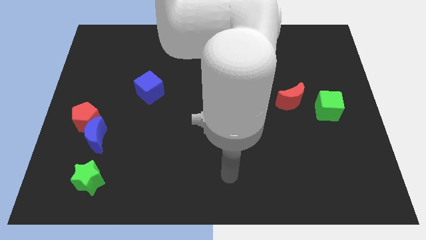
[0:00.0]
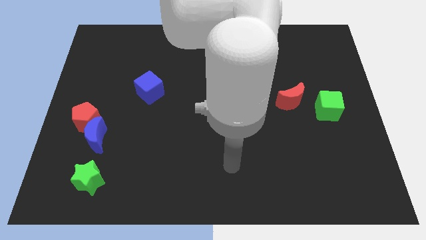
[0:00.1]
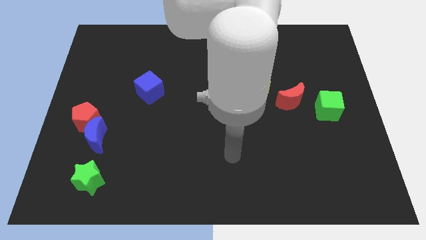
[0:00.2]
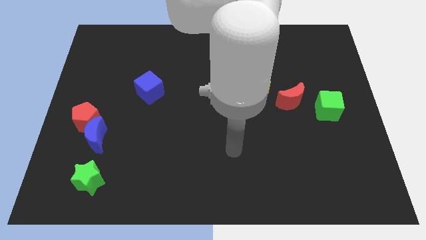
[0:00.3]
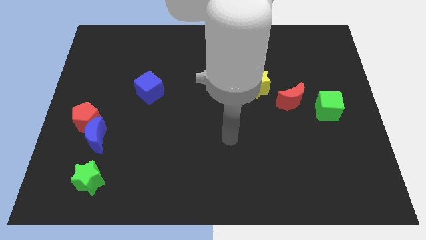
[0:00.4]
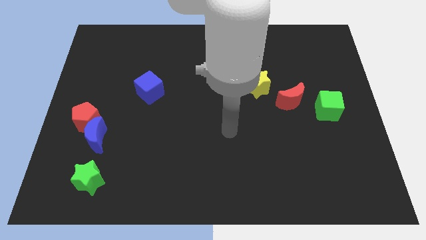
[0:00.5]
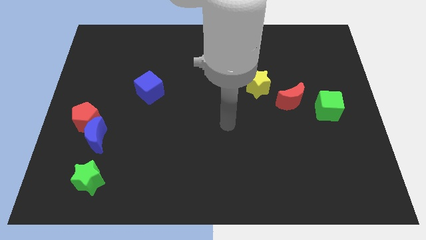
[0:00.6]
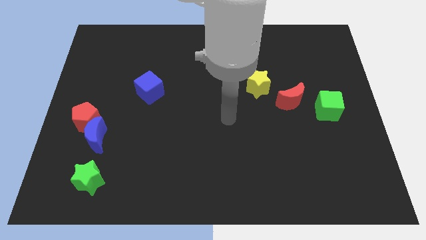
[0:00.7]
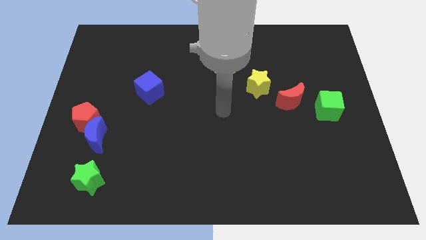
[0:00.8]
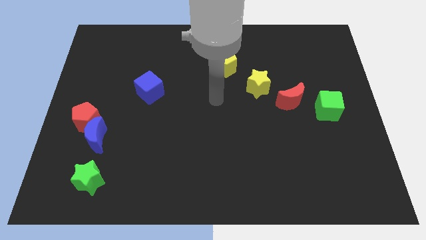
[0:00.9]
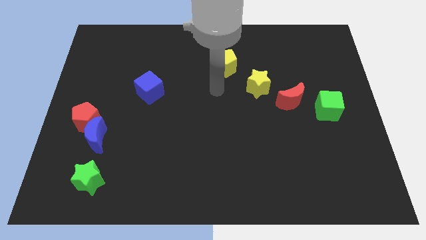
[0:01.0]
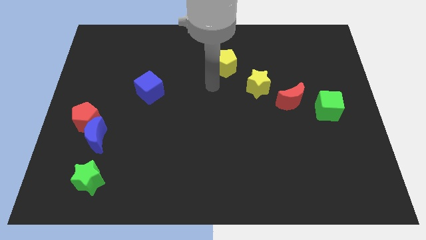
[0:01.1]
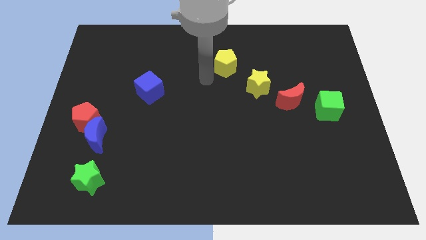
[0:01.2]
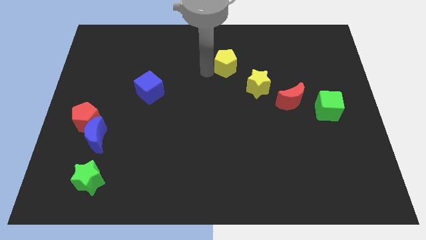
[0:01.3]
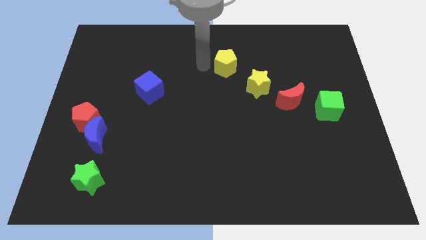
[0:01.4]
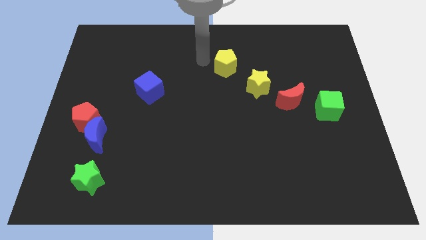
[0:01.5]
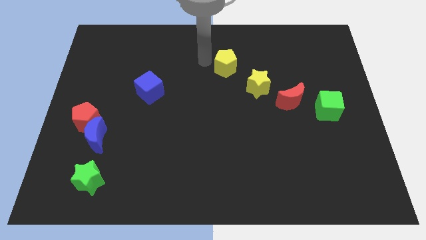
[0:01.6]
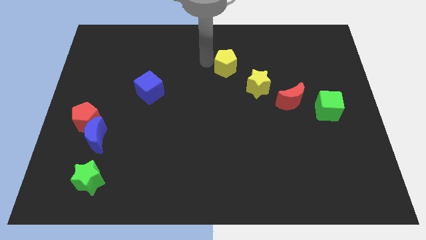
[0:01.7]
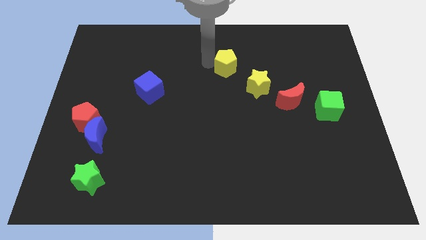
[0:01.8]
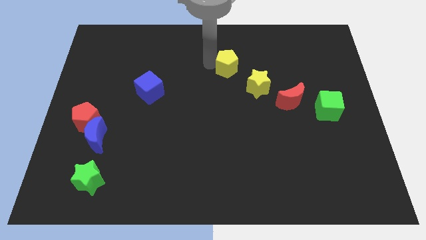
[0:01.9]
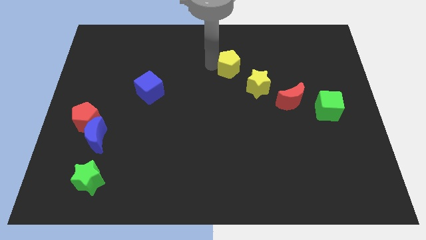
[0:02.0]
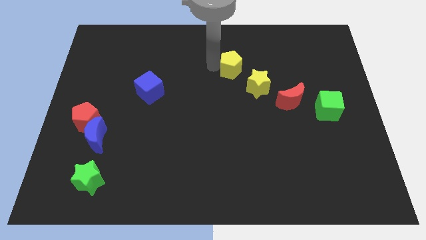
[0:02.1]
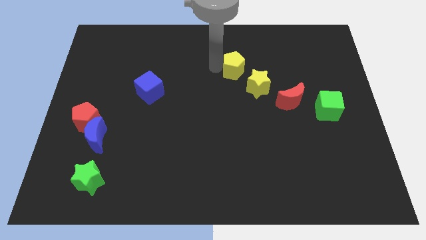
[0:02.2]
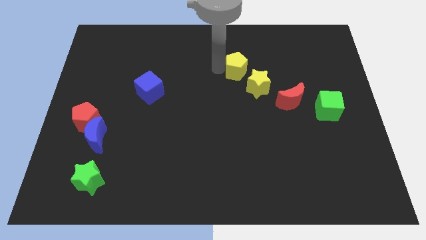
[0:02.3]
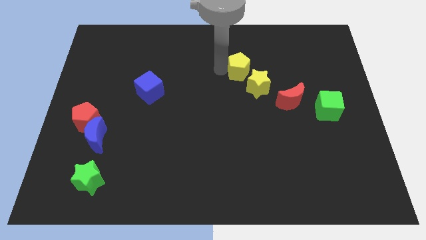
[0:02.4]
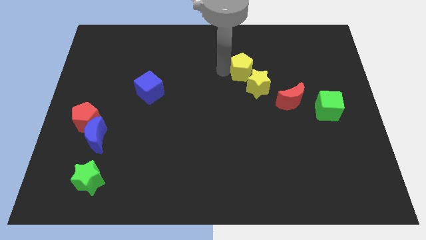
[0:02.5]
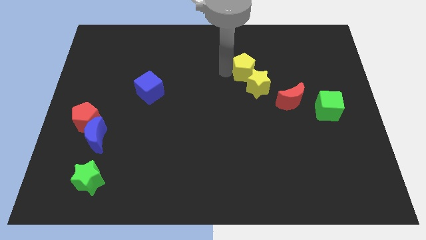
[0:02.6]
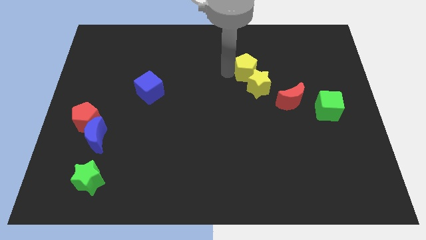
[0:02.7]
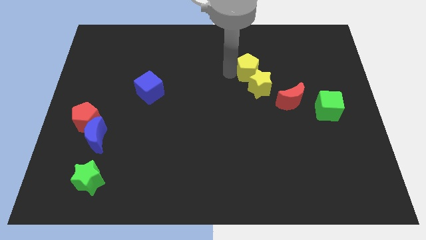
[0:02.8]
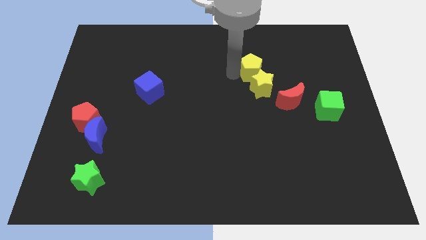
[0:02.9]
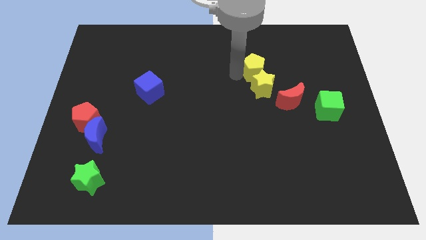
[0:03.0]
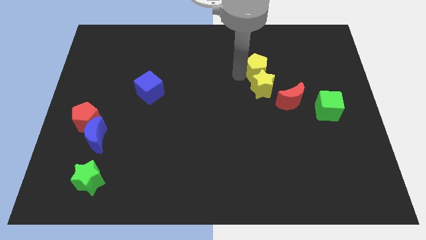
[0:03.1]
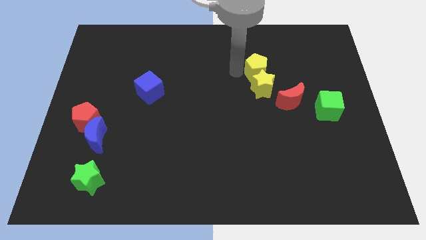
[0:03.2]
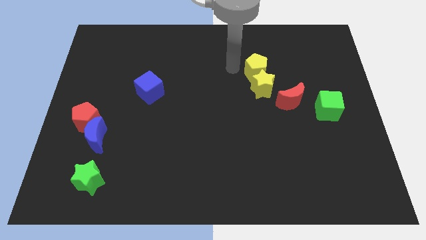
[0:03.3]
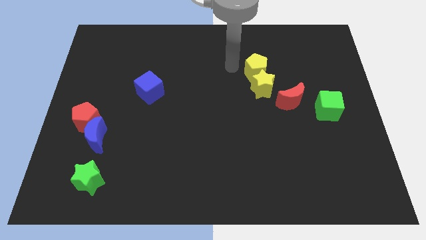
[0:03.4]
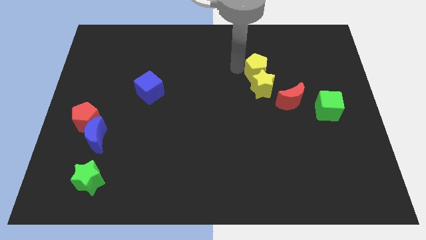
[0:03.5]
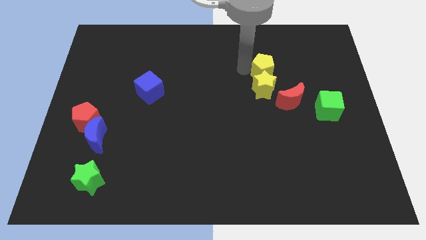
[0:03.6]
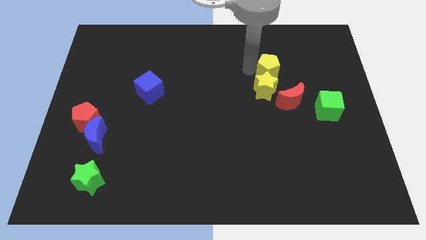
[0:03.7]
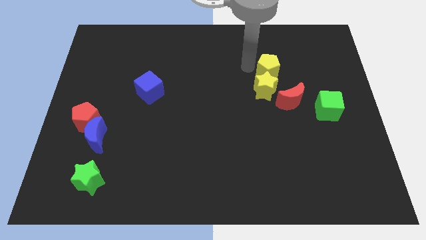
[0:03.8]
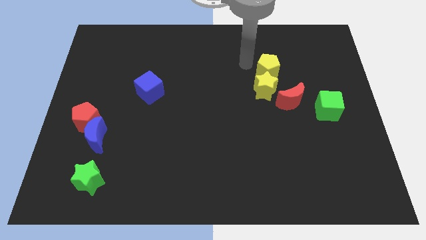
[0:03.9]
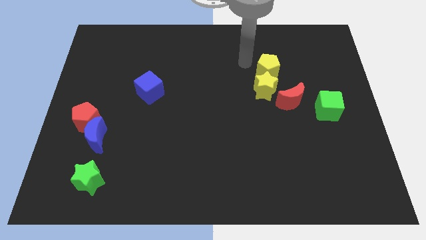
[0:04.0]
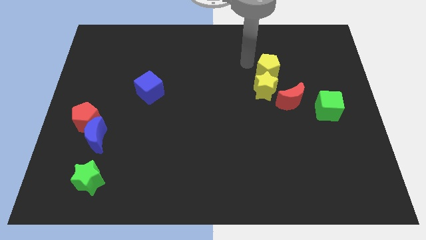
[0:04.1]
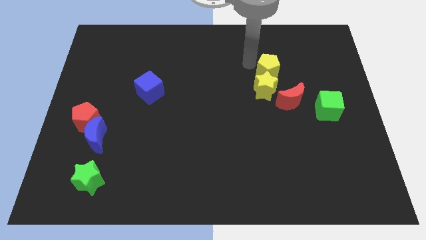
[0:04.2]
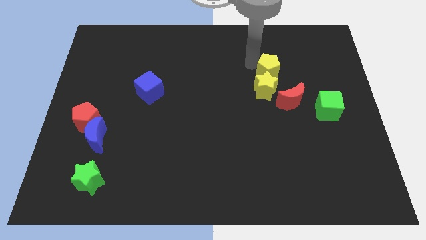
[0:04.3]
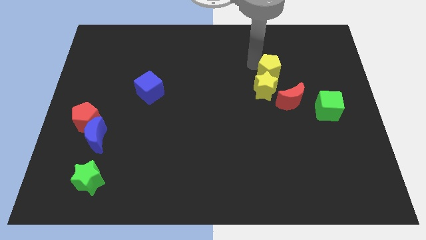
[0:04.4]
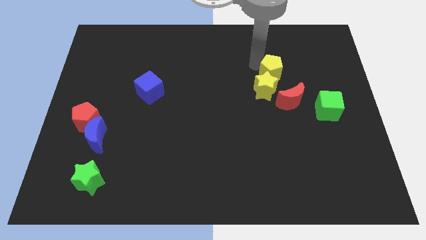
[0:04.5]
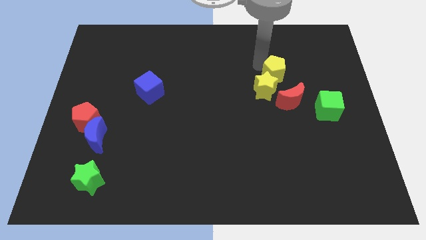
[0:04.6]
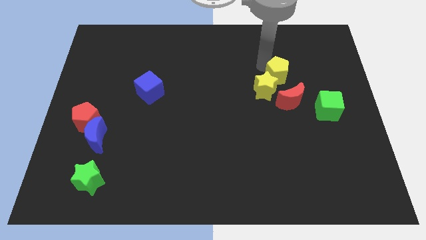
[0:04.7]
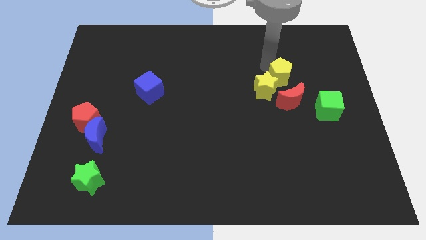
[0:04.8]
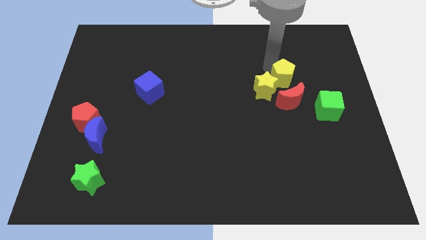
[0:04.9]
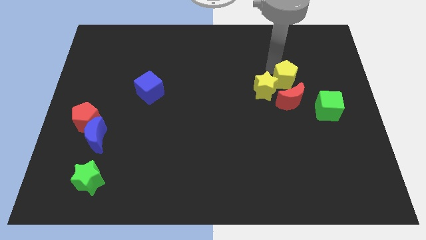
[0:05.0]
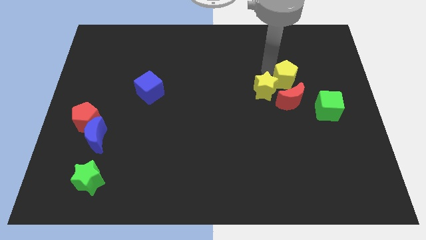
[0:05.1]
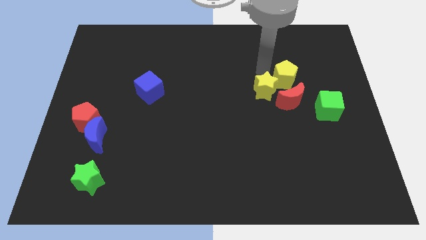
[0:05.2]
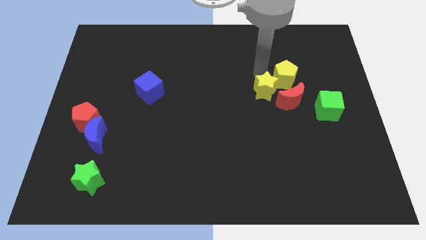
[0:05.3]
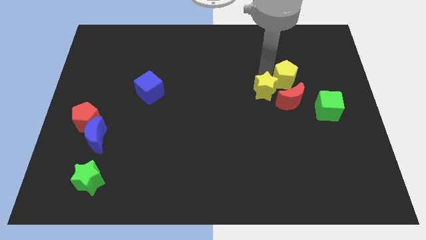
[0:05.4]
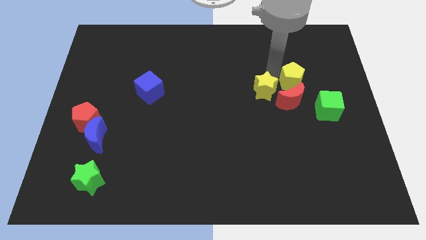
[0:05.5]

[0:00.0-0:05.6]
put the yellow pentagon diagonally up and to the right of the red moon

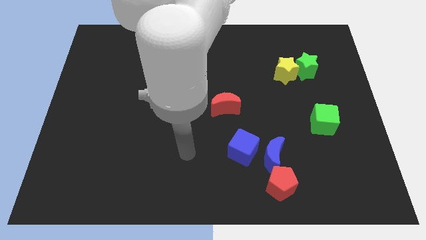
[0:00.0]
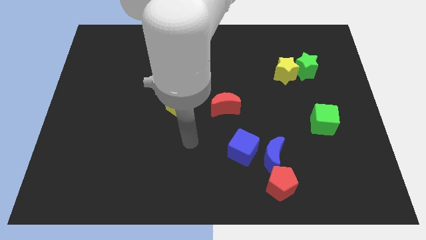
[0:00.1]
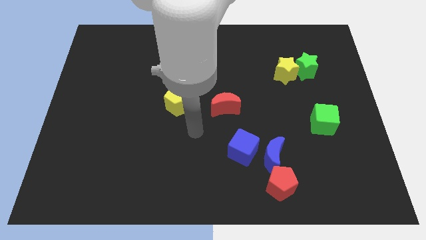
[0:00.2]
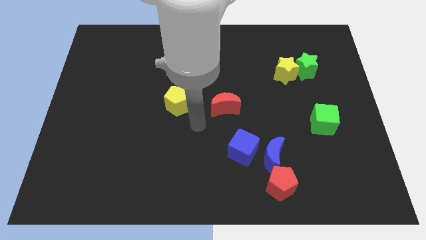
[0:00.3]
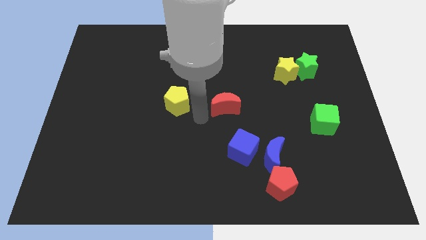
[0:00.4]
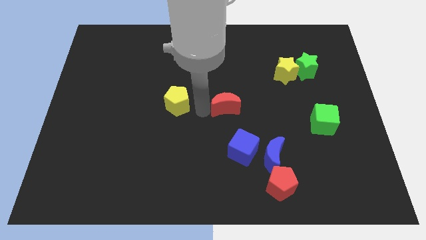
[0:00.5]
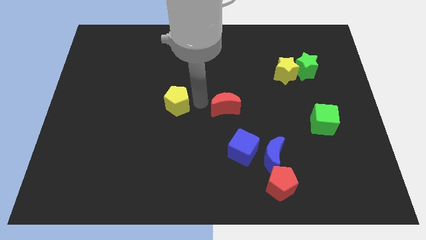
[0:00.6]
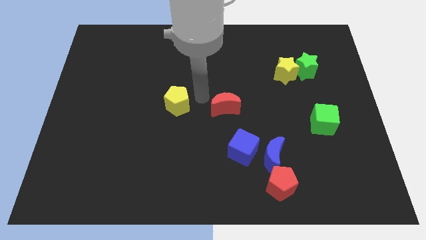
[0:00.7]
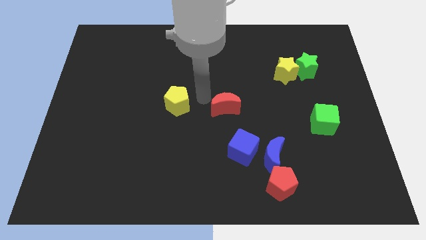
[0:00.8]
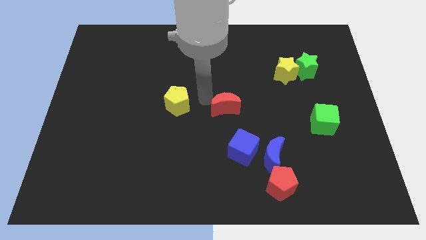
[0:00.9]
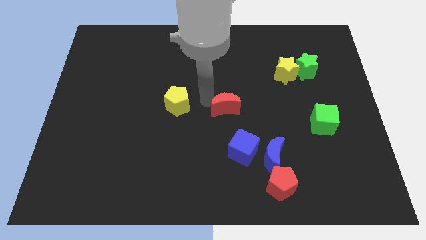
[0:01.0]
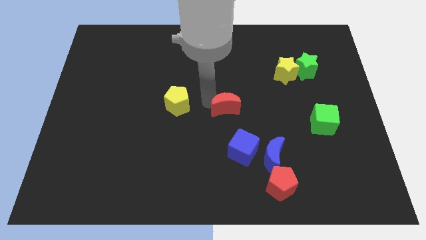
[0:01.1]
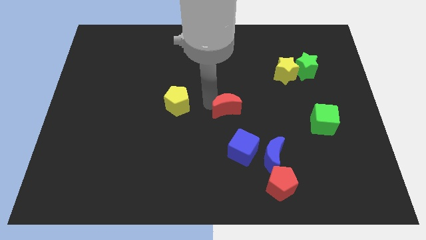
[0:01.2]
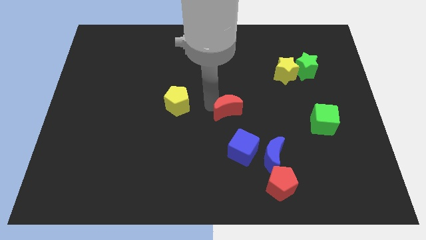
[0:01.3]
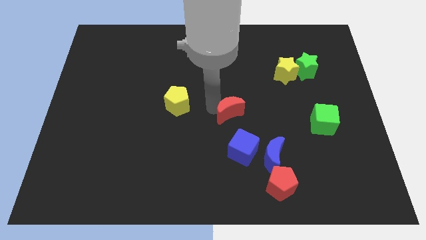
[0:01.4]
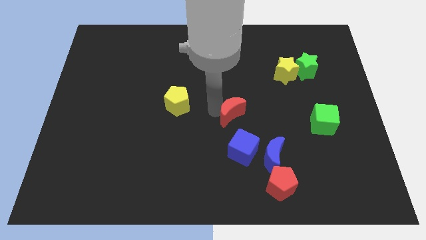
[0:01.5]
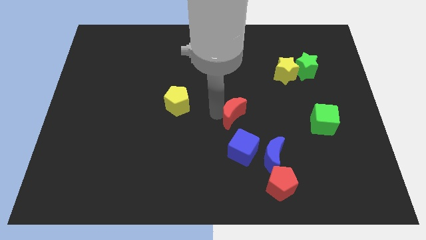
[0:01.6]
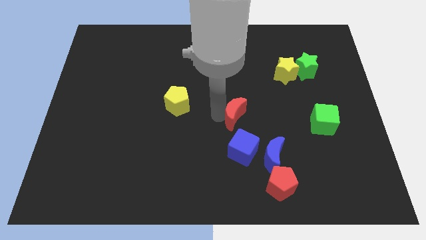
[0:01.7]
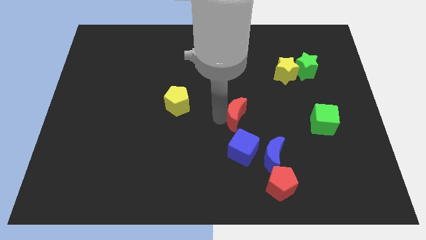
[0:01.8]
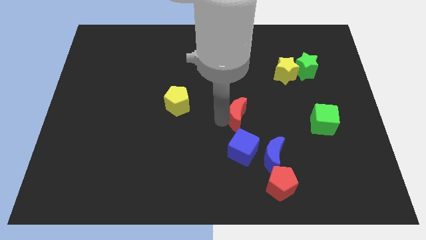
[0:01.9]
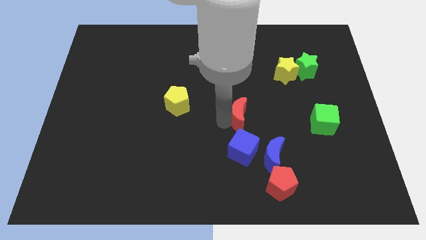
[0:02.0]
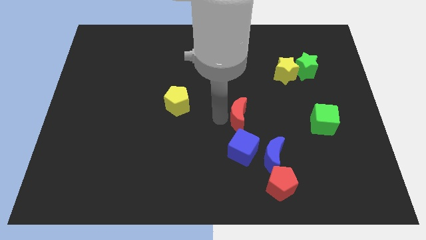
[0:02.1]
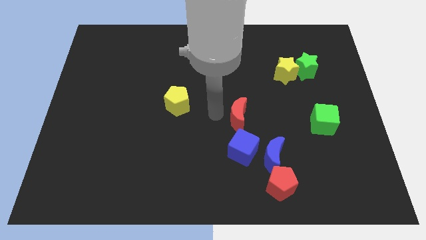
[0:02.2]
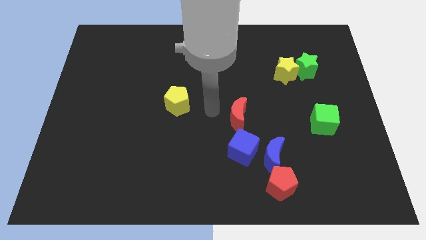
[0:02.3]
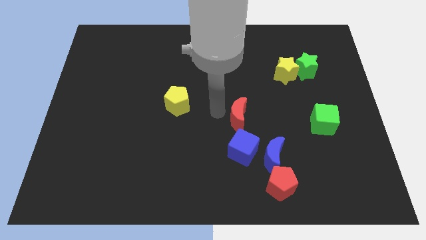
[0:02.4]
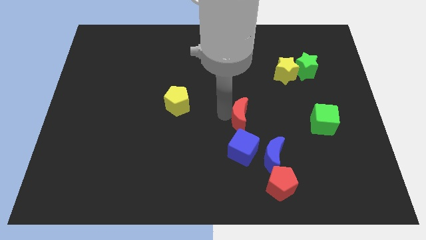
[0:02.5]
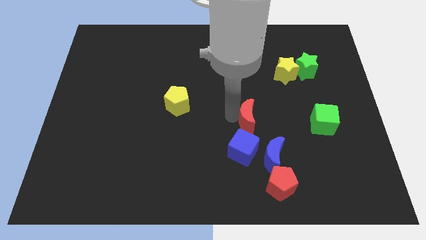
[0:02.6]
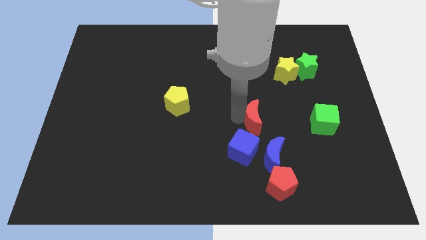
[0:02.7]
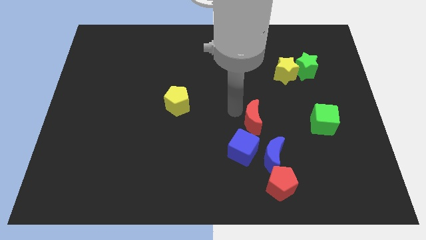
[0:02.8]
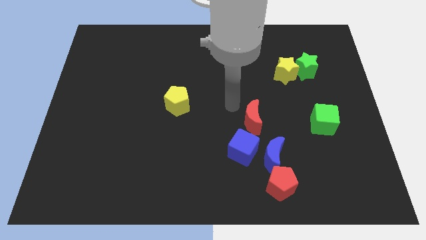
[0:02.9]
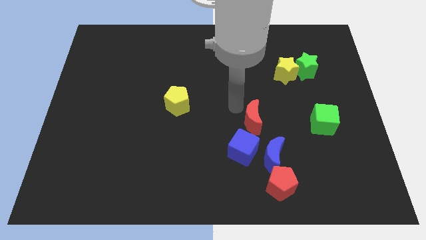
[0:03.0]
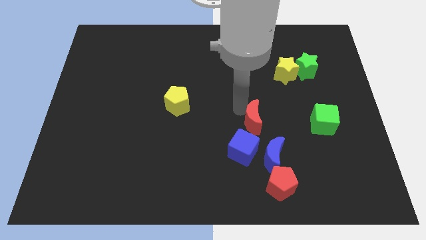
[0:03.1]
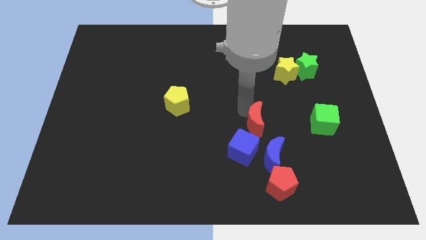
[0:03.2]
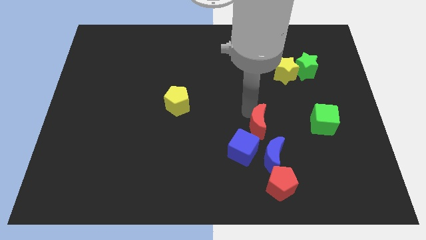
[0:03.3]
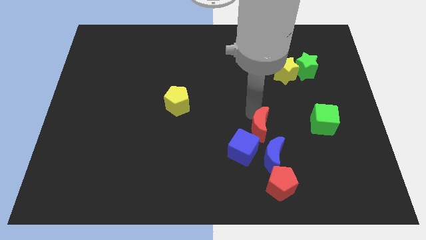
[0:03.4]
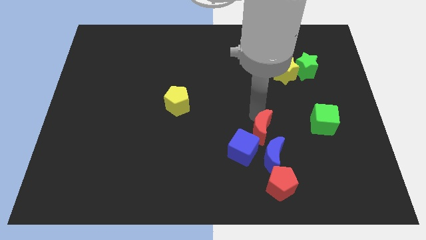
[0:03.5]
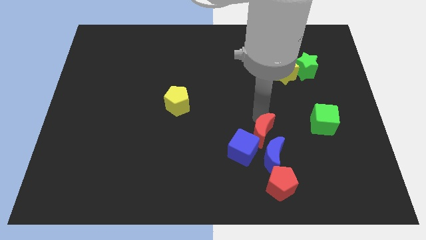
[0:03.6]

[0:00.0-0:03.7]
put the red moon just right of the blue cube
